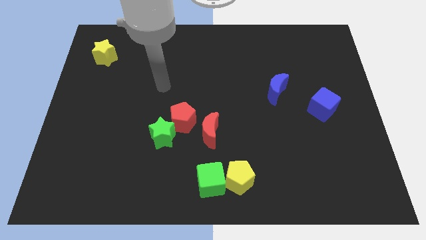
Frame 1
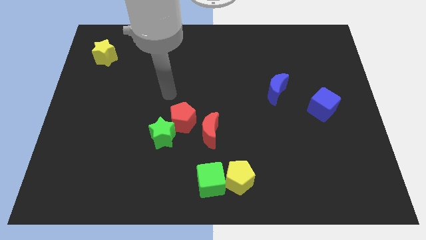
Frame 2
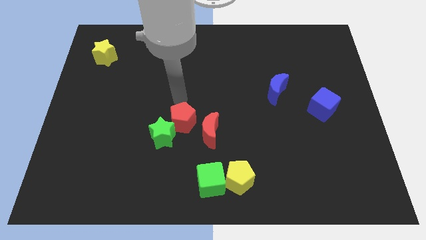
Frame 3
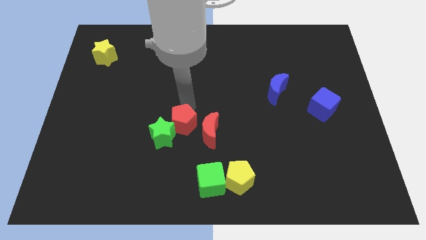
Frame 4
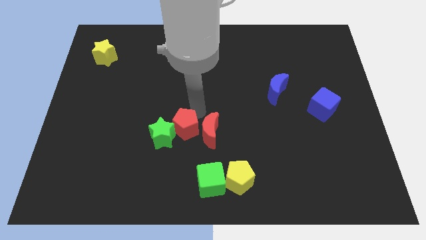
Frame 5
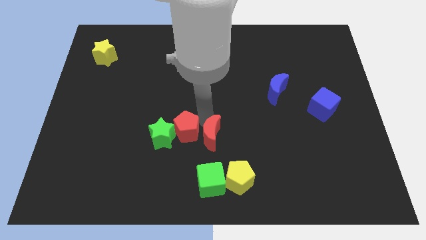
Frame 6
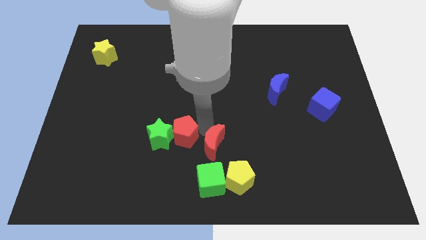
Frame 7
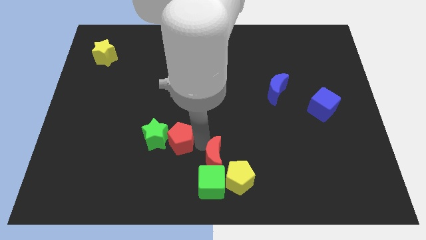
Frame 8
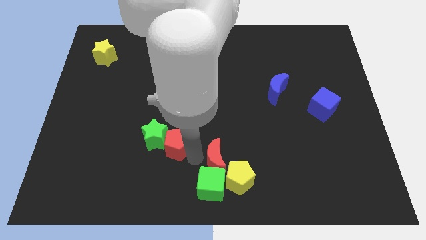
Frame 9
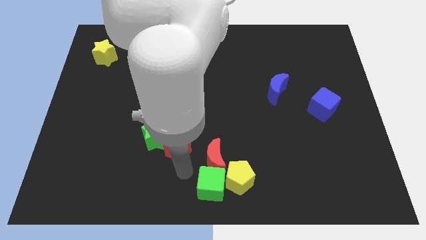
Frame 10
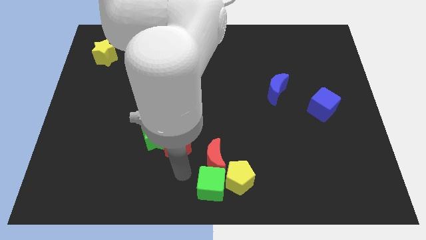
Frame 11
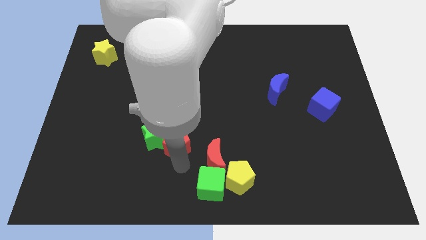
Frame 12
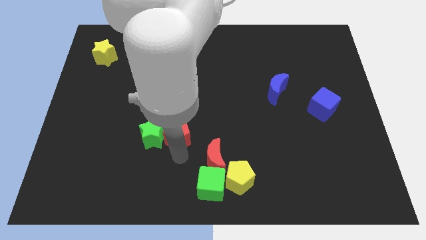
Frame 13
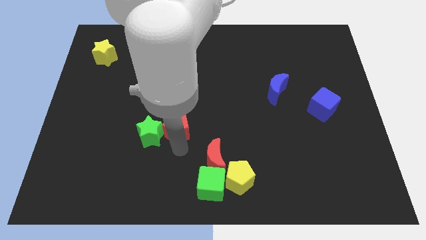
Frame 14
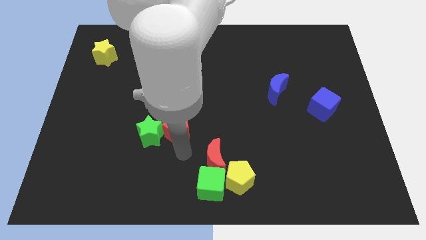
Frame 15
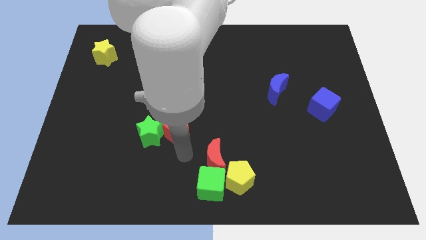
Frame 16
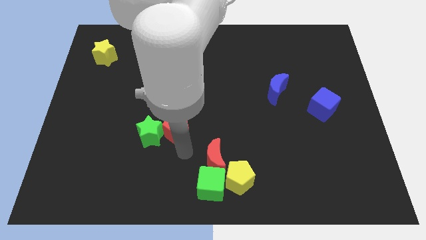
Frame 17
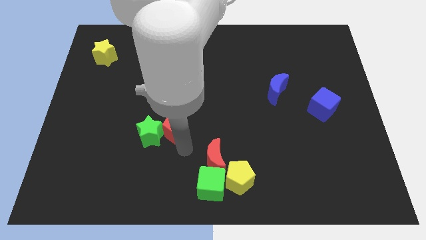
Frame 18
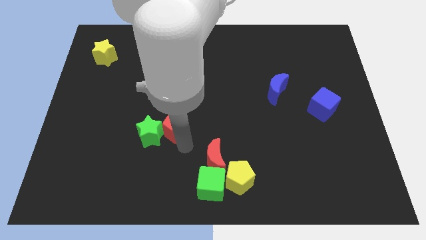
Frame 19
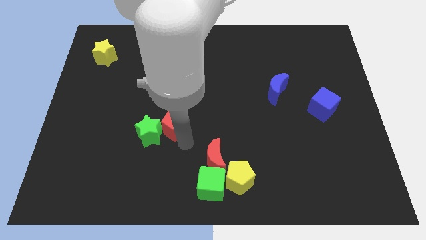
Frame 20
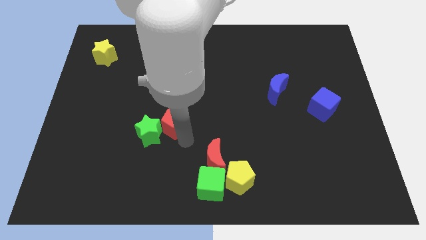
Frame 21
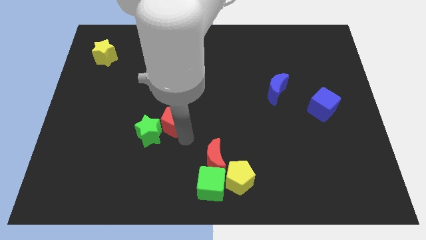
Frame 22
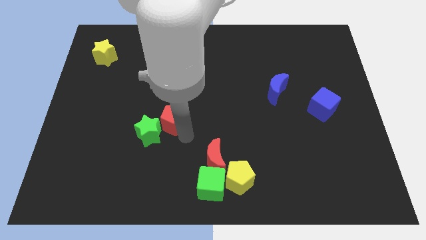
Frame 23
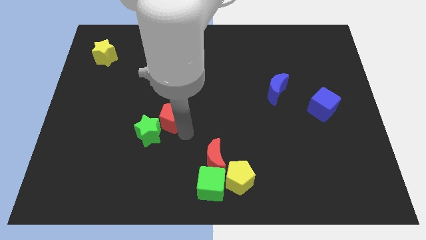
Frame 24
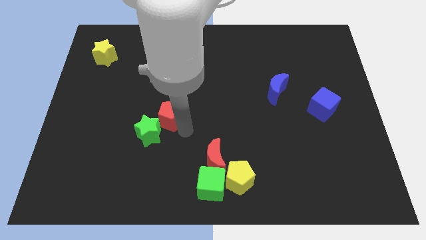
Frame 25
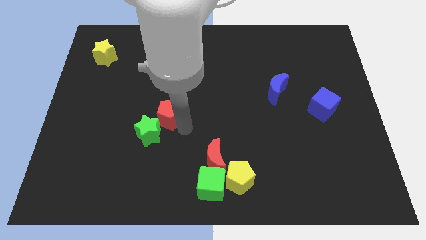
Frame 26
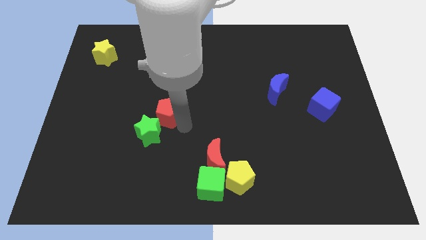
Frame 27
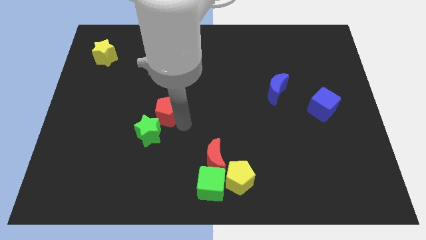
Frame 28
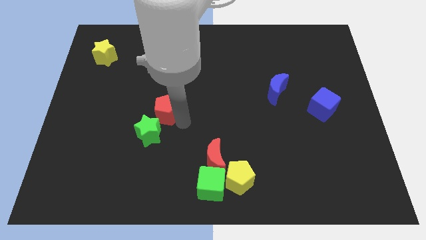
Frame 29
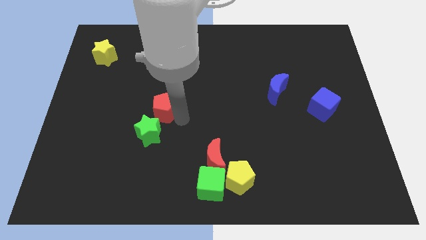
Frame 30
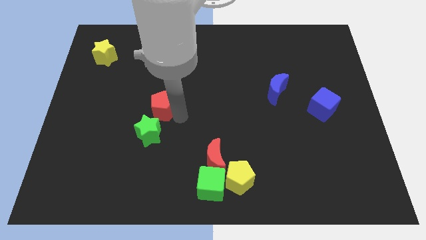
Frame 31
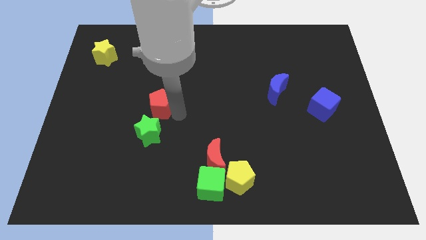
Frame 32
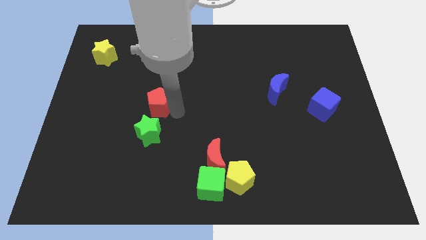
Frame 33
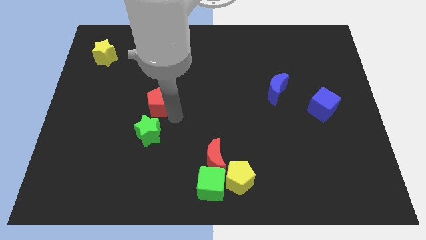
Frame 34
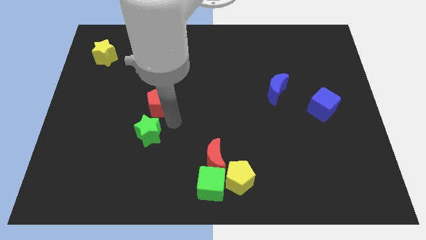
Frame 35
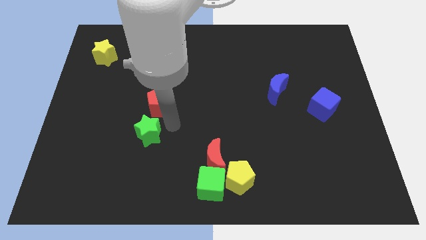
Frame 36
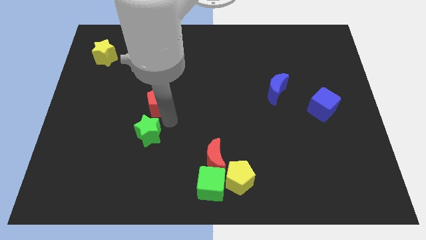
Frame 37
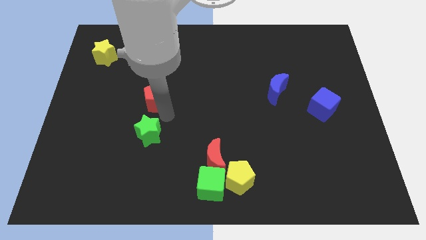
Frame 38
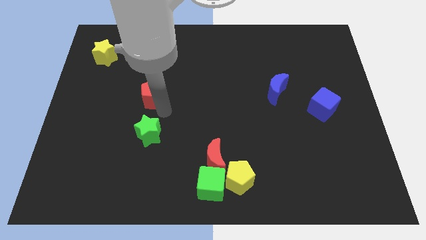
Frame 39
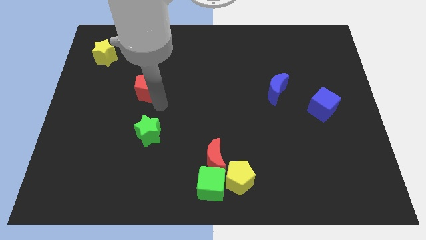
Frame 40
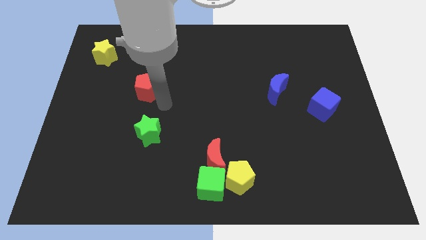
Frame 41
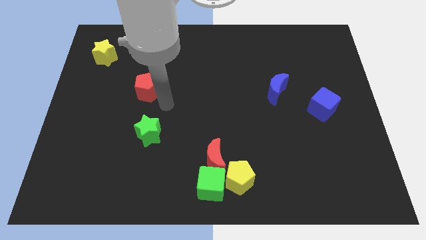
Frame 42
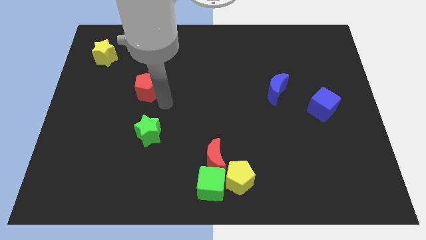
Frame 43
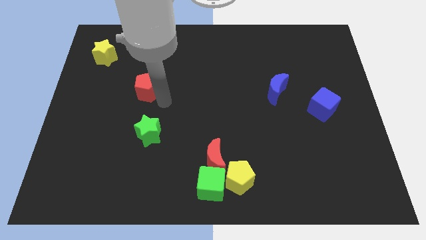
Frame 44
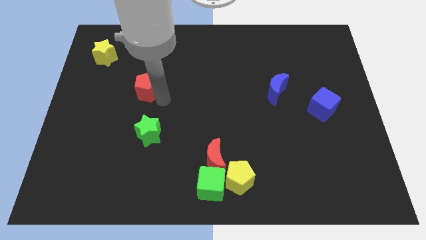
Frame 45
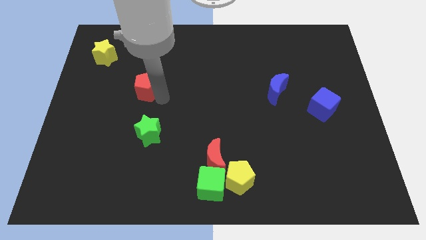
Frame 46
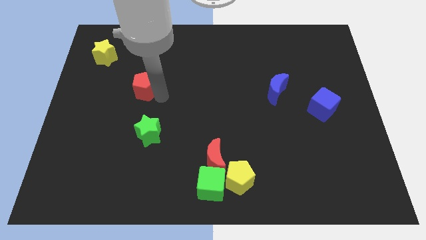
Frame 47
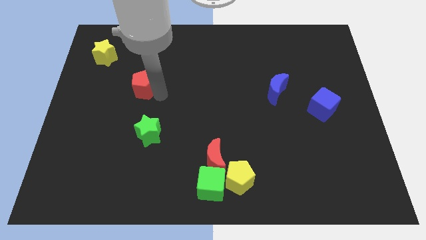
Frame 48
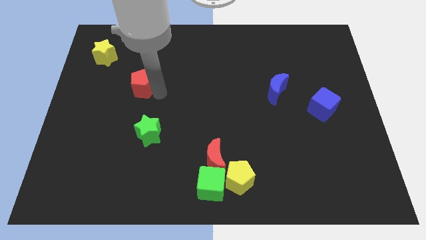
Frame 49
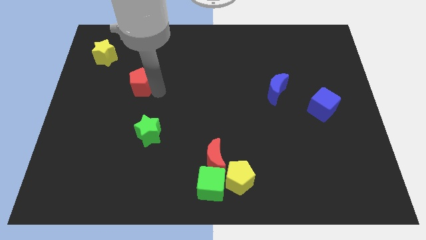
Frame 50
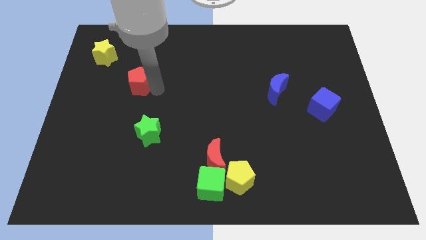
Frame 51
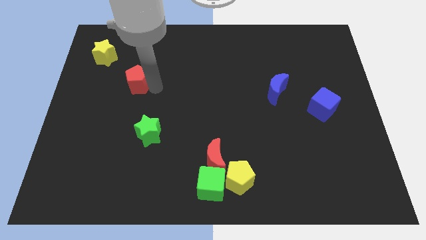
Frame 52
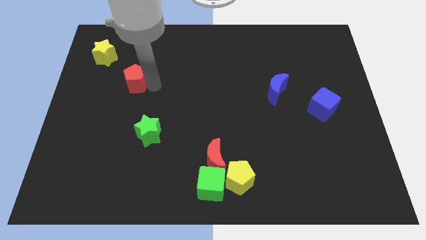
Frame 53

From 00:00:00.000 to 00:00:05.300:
put the red pentagon to the bottom right of the yellow star

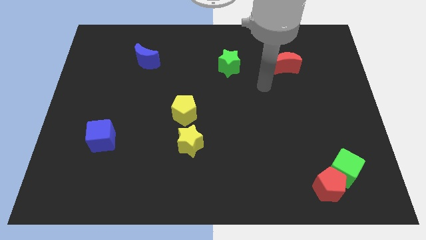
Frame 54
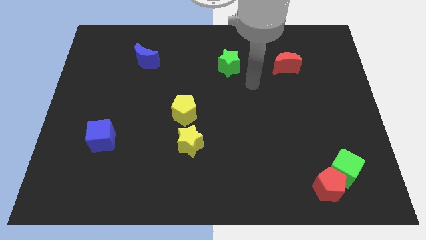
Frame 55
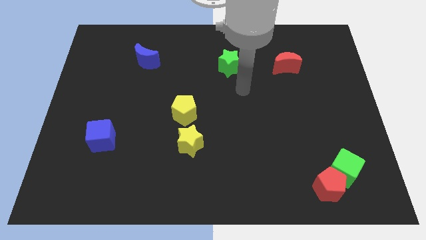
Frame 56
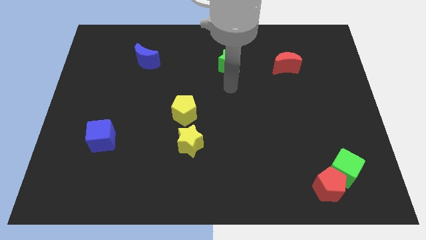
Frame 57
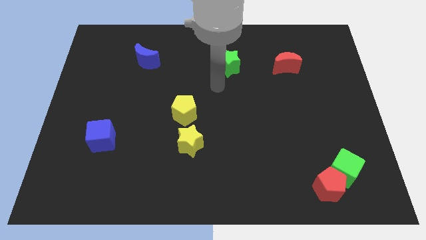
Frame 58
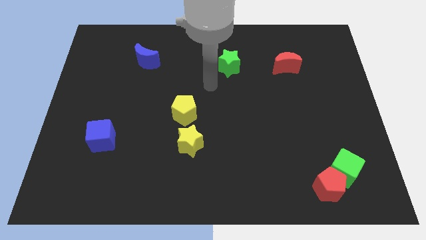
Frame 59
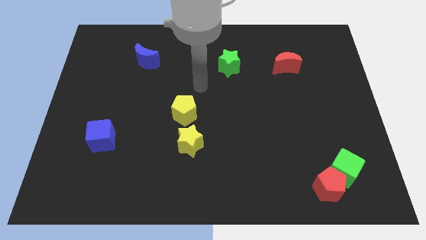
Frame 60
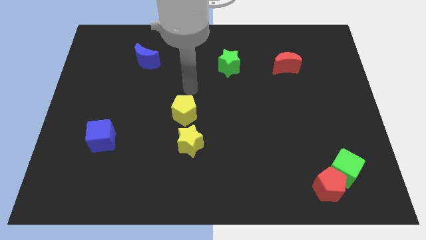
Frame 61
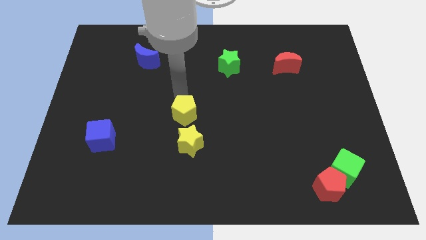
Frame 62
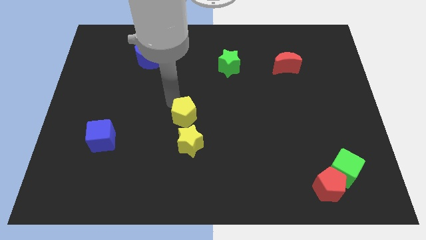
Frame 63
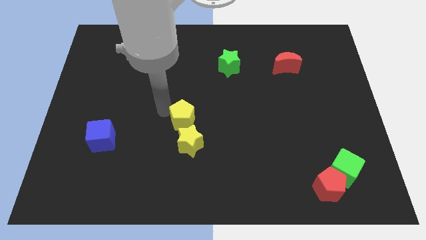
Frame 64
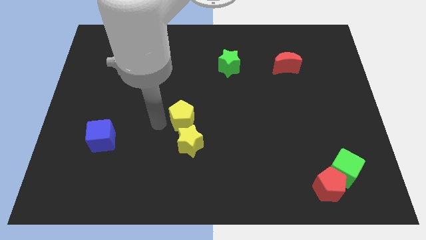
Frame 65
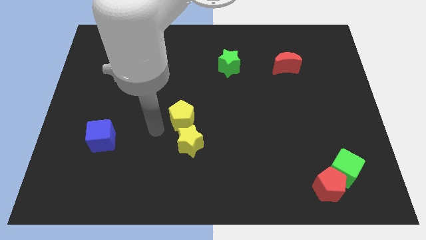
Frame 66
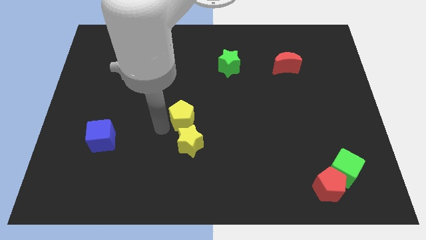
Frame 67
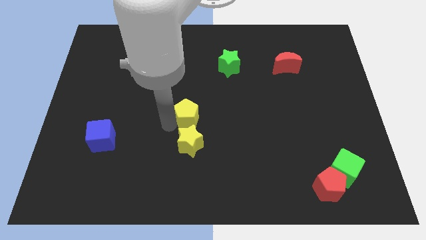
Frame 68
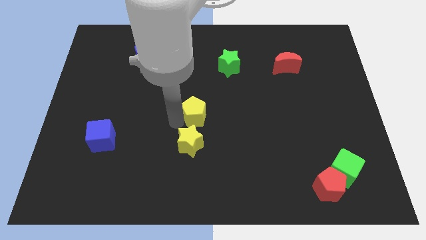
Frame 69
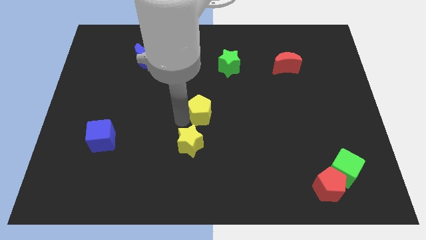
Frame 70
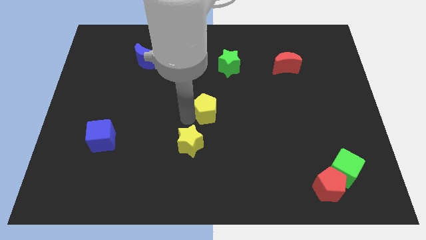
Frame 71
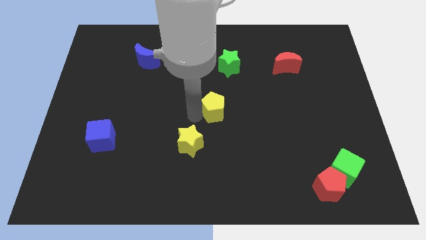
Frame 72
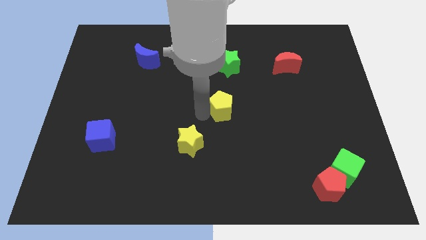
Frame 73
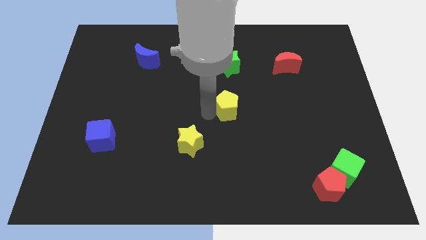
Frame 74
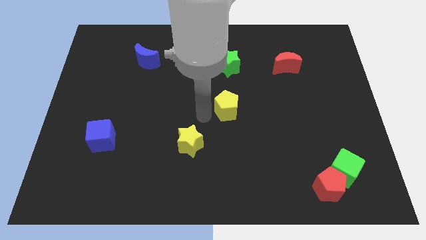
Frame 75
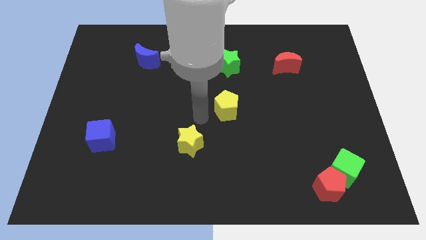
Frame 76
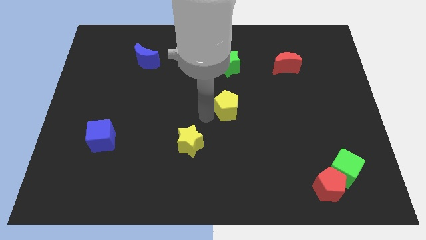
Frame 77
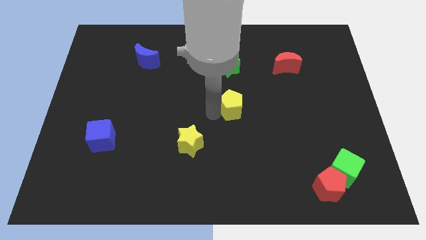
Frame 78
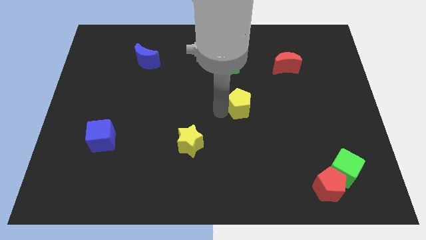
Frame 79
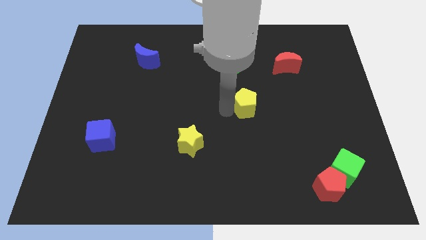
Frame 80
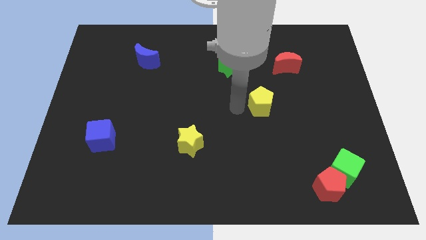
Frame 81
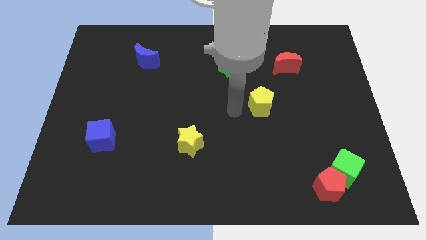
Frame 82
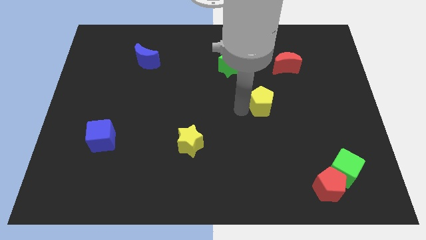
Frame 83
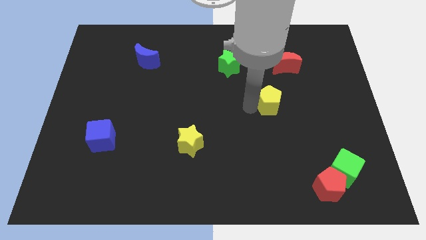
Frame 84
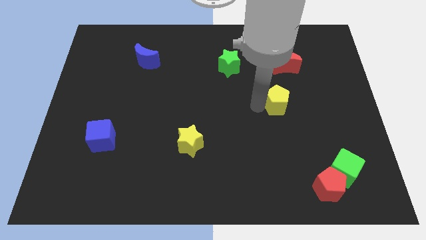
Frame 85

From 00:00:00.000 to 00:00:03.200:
push the yellow pentagon below the red moon
